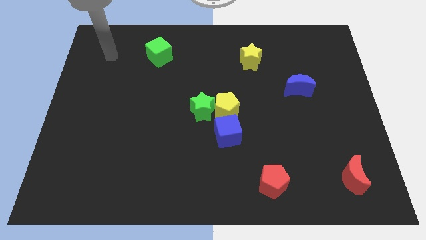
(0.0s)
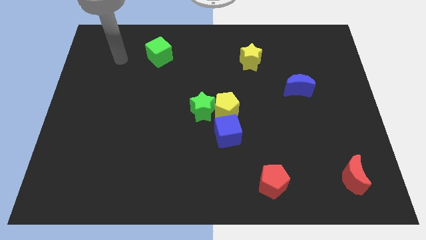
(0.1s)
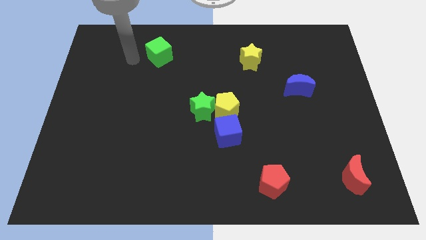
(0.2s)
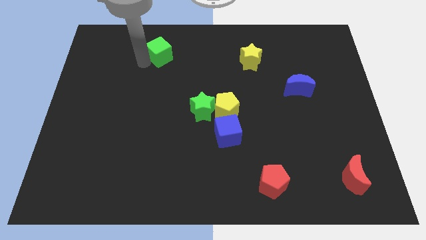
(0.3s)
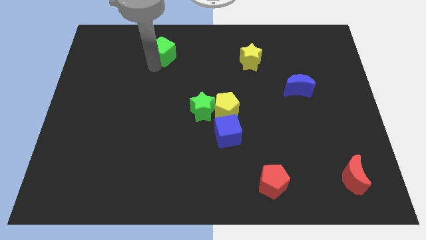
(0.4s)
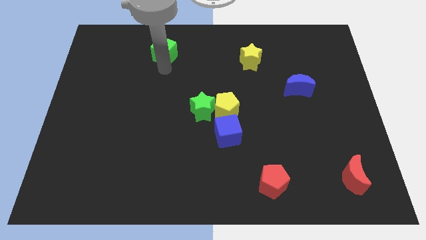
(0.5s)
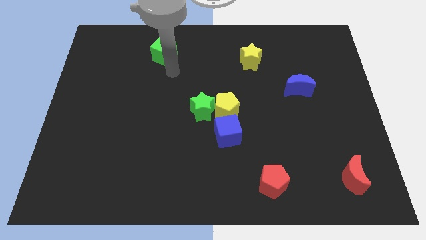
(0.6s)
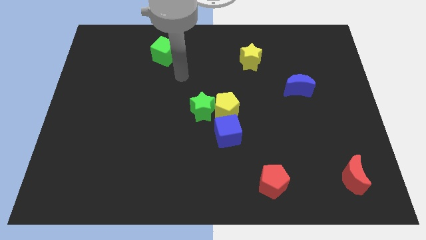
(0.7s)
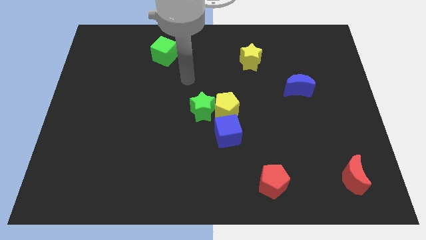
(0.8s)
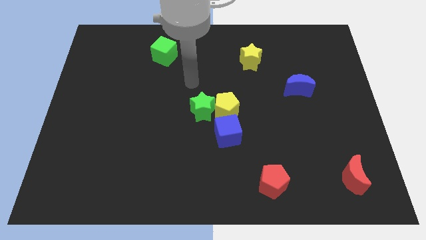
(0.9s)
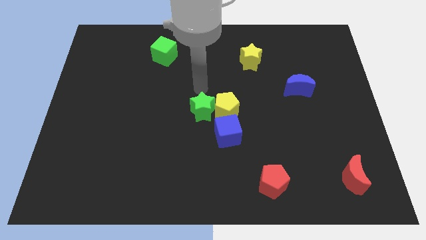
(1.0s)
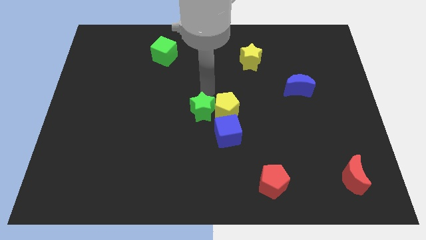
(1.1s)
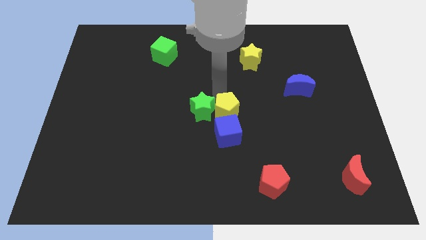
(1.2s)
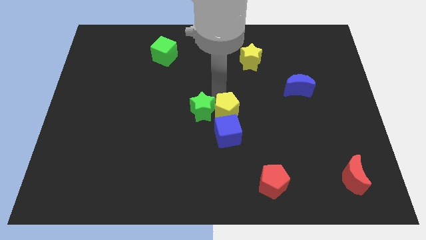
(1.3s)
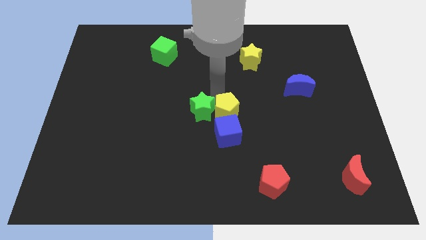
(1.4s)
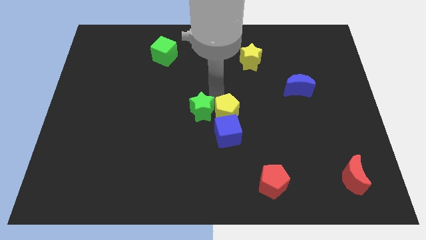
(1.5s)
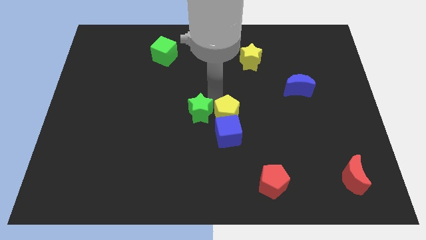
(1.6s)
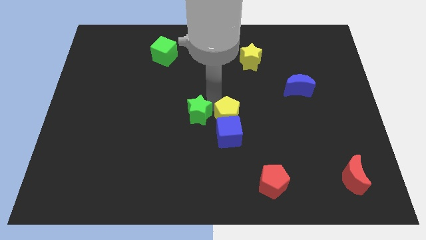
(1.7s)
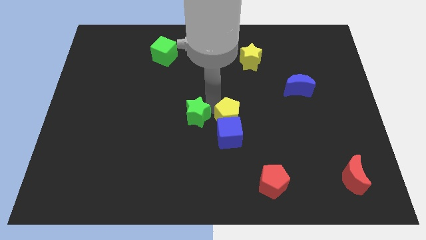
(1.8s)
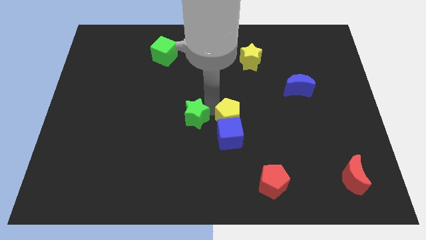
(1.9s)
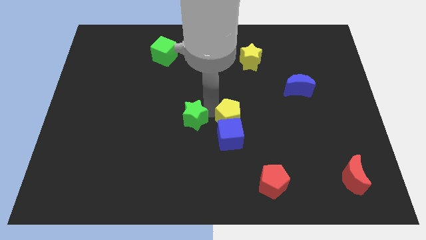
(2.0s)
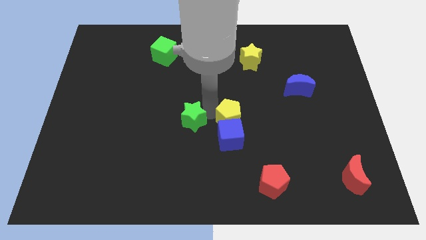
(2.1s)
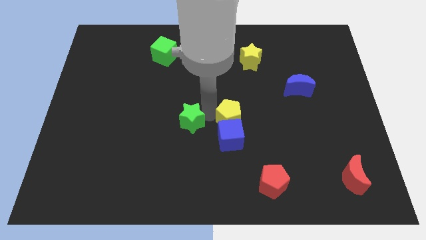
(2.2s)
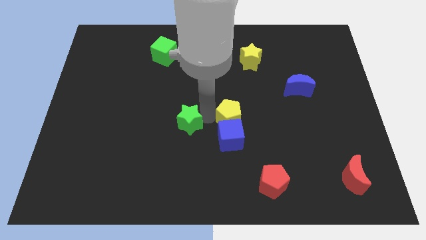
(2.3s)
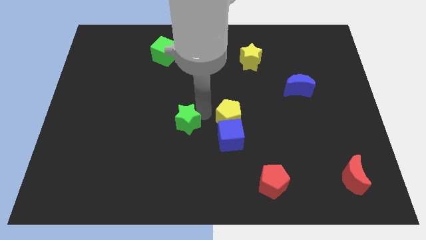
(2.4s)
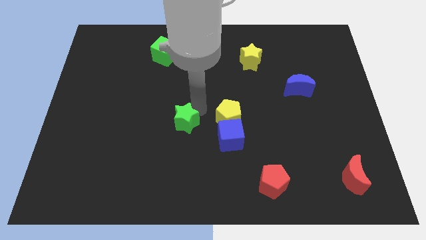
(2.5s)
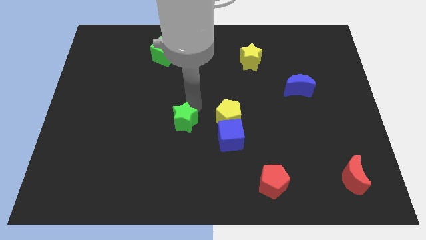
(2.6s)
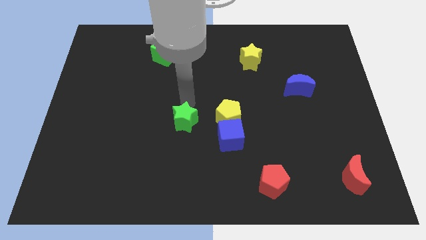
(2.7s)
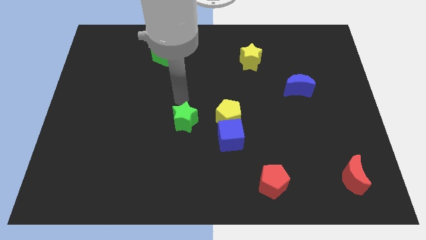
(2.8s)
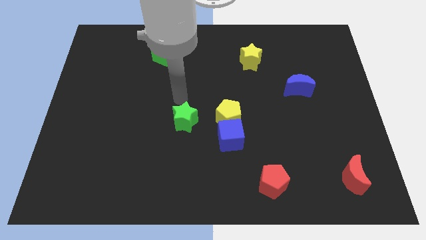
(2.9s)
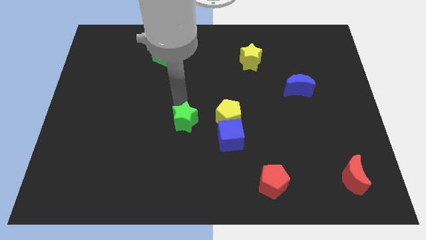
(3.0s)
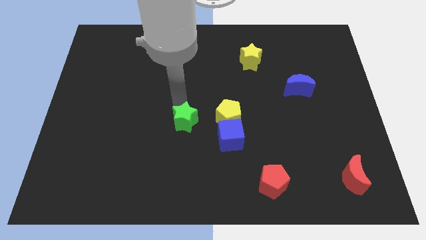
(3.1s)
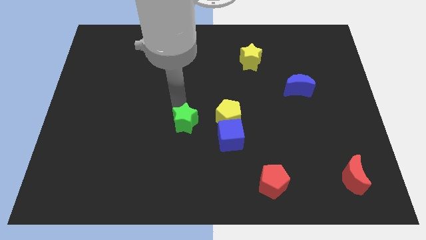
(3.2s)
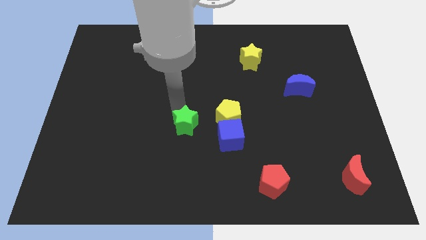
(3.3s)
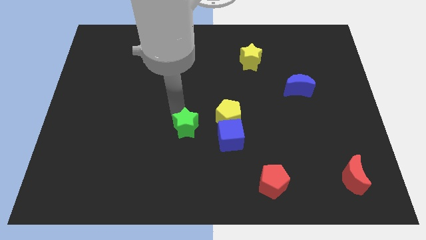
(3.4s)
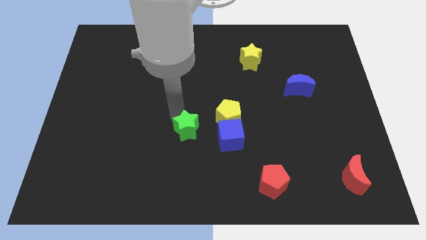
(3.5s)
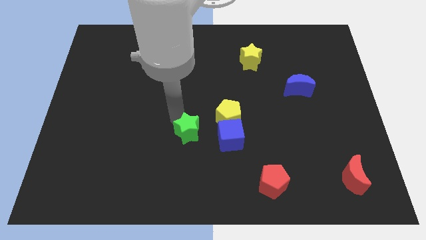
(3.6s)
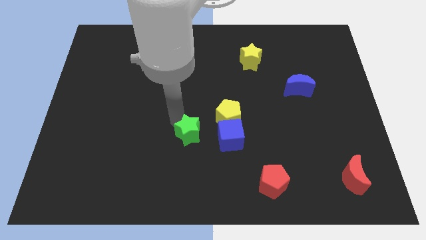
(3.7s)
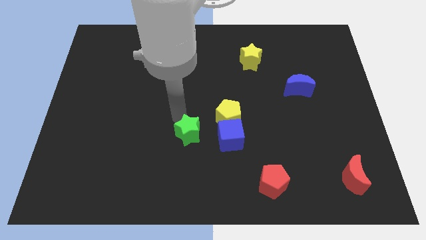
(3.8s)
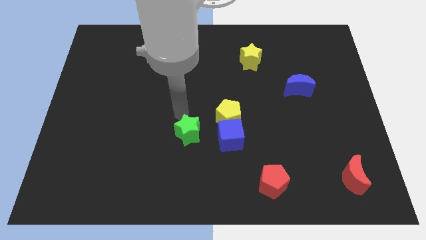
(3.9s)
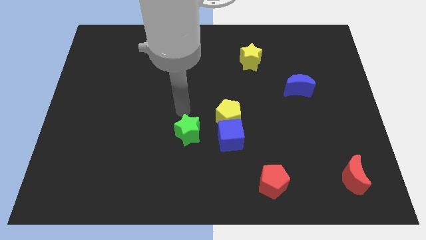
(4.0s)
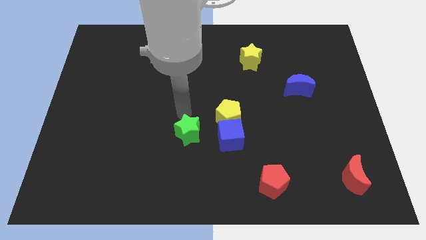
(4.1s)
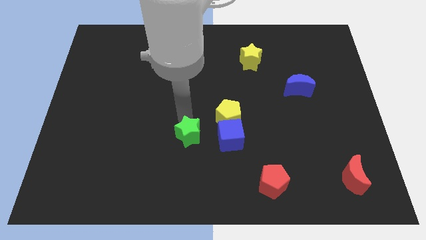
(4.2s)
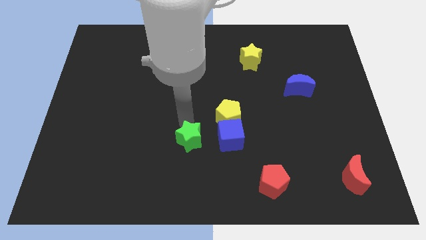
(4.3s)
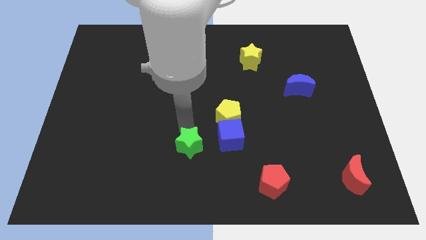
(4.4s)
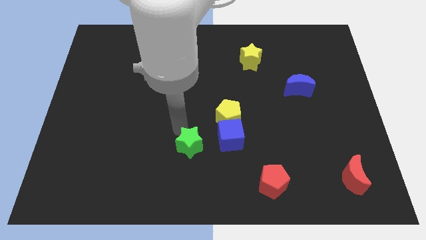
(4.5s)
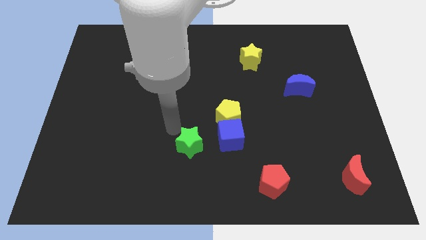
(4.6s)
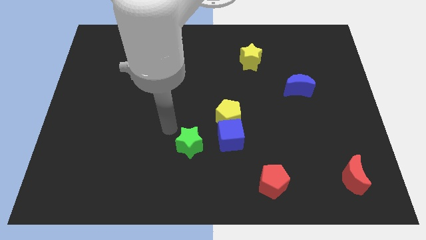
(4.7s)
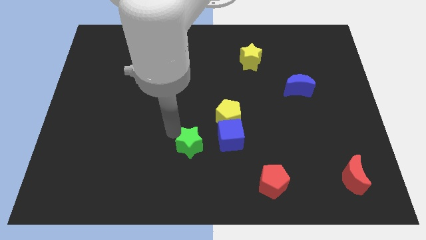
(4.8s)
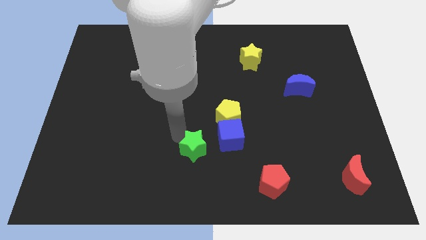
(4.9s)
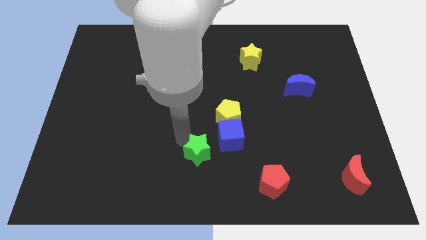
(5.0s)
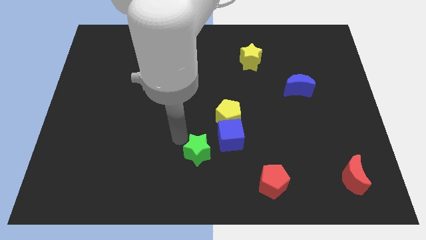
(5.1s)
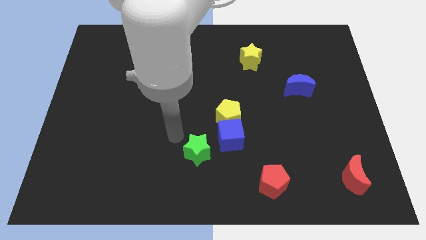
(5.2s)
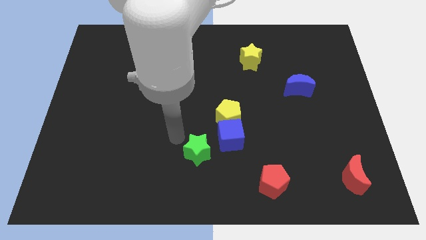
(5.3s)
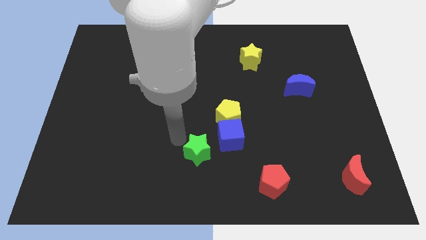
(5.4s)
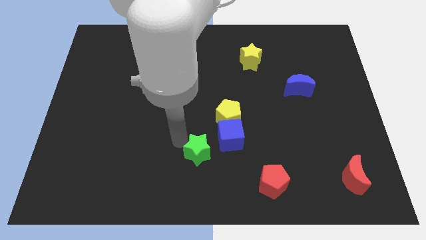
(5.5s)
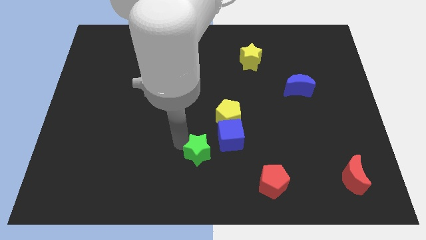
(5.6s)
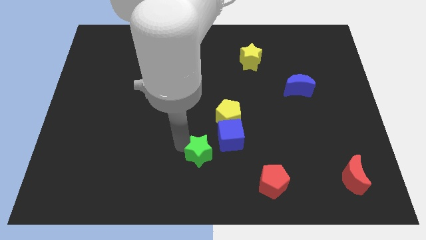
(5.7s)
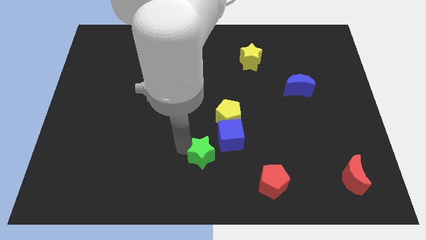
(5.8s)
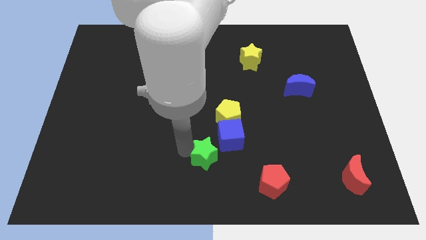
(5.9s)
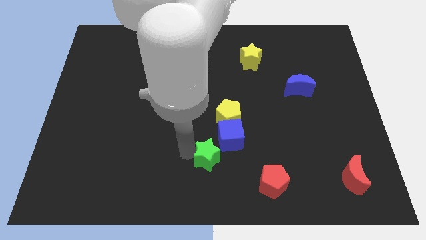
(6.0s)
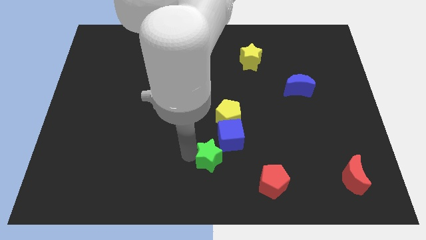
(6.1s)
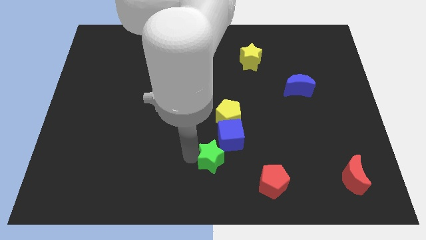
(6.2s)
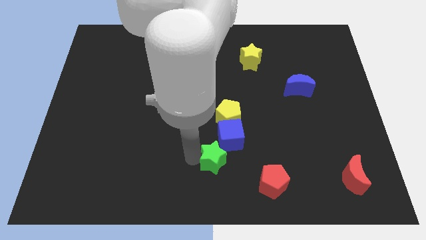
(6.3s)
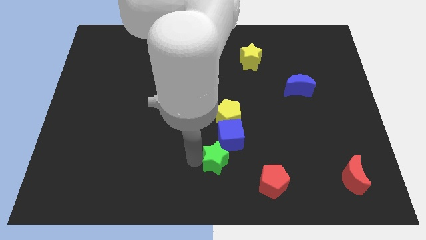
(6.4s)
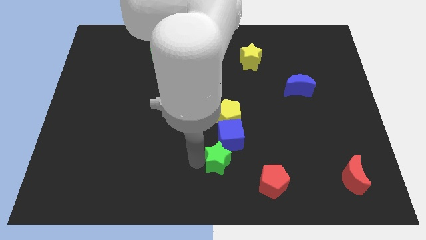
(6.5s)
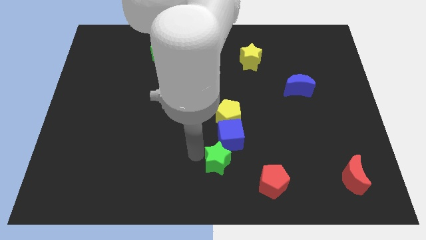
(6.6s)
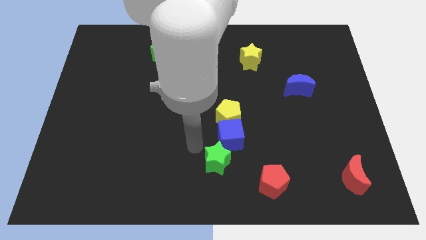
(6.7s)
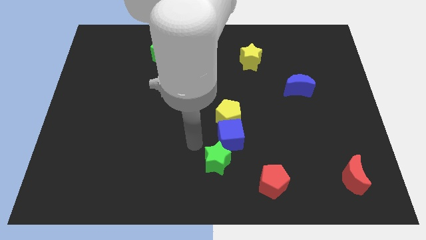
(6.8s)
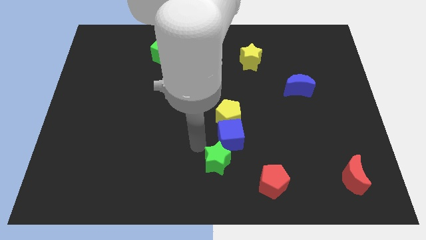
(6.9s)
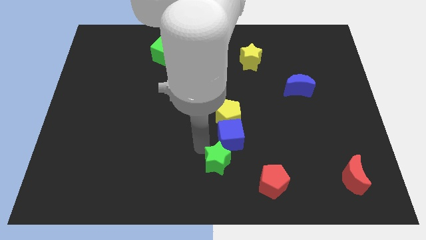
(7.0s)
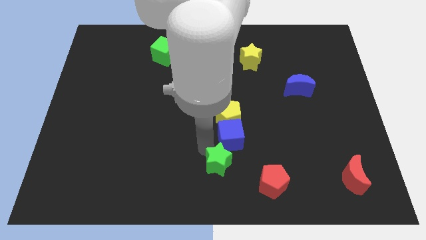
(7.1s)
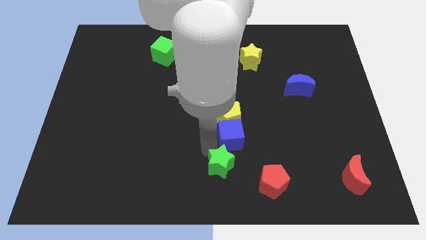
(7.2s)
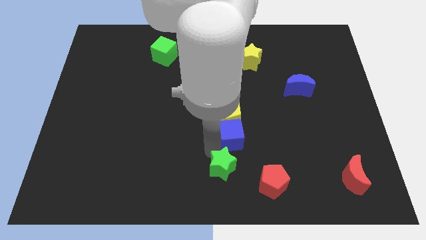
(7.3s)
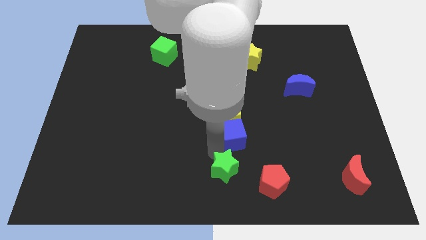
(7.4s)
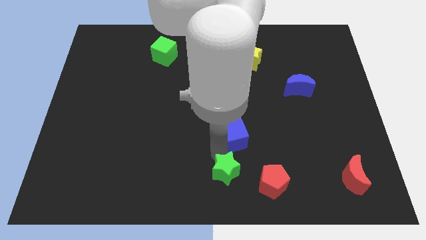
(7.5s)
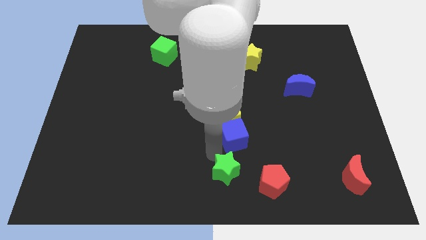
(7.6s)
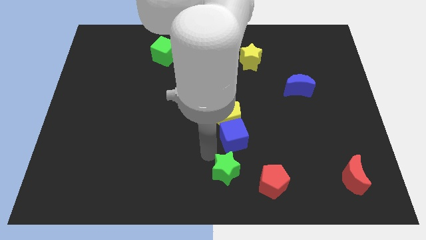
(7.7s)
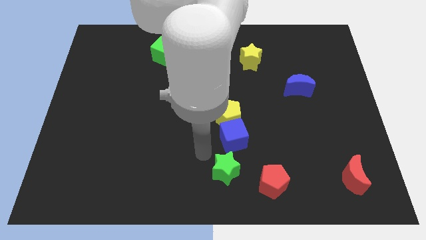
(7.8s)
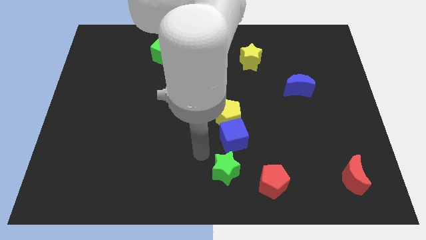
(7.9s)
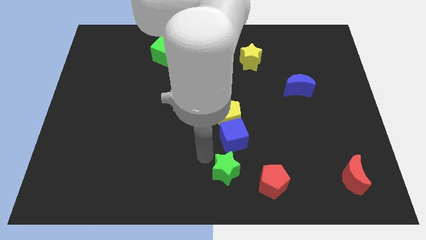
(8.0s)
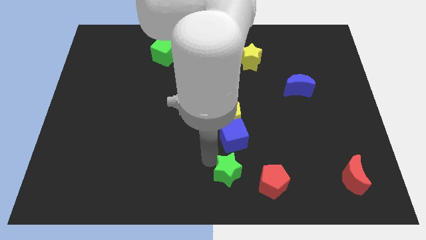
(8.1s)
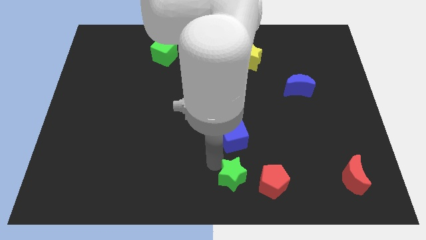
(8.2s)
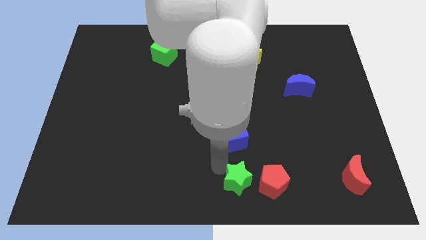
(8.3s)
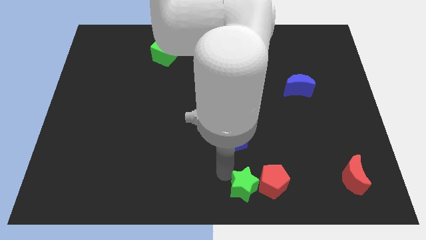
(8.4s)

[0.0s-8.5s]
push the green star next to the red pentagon
